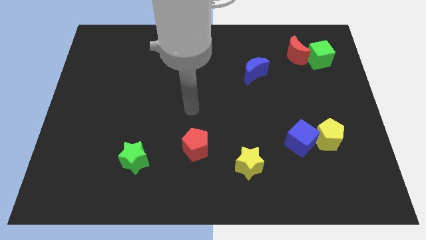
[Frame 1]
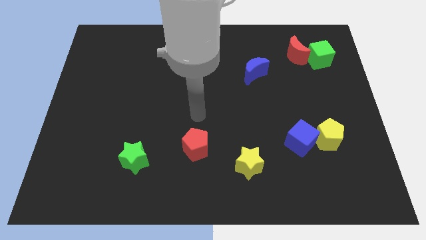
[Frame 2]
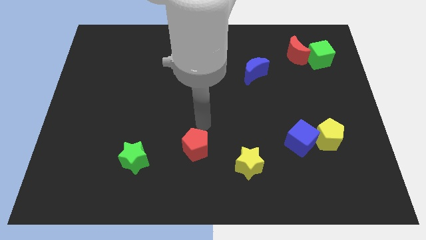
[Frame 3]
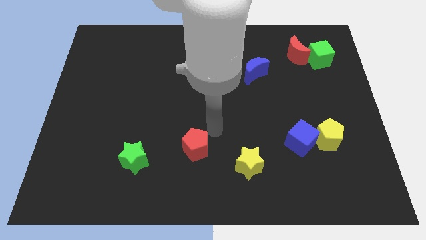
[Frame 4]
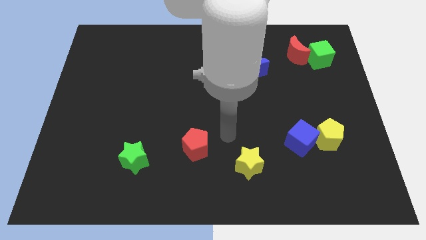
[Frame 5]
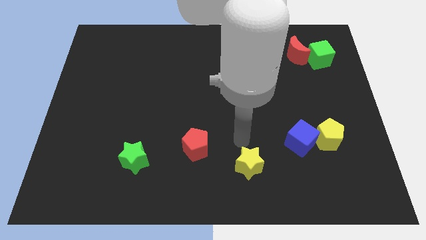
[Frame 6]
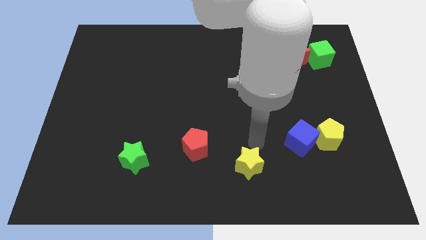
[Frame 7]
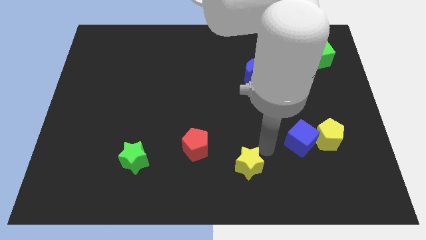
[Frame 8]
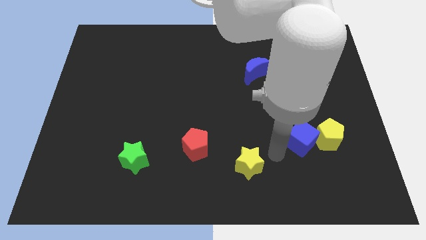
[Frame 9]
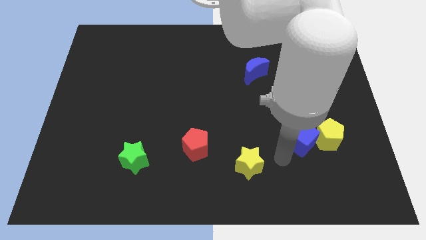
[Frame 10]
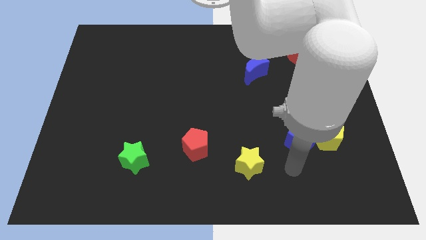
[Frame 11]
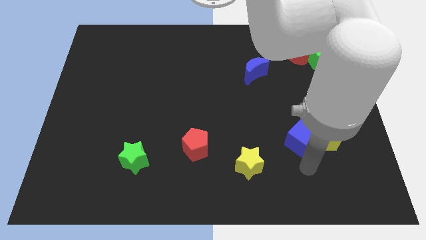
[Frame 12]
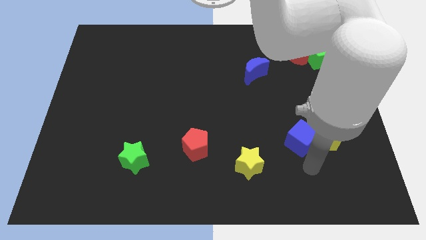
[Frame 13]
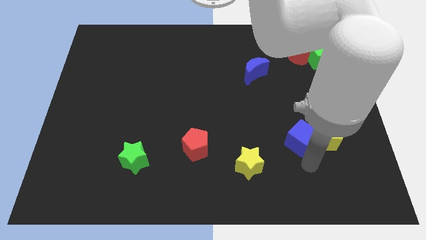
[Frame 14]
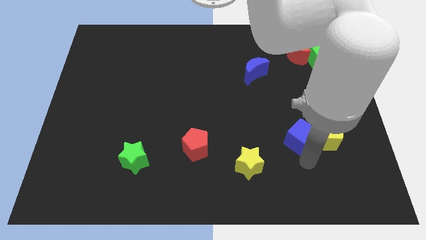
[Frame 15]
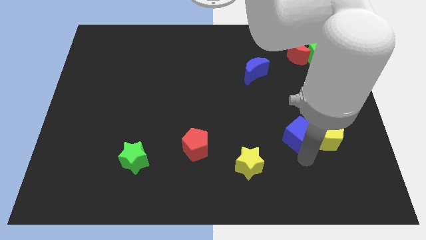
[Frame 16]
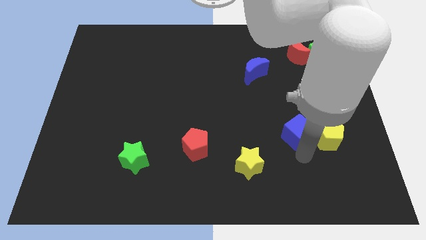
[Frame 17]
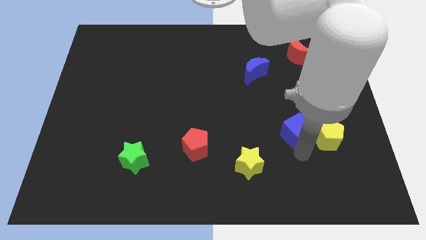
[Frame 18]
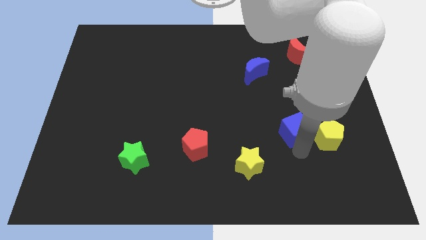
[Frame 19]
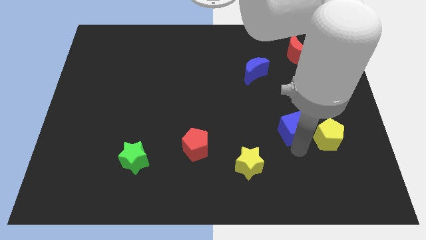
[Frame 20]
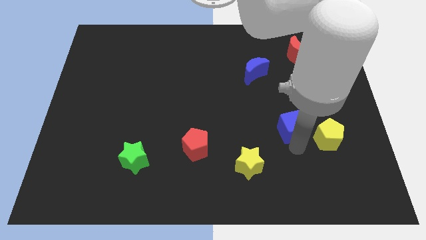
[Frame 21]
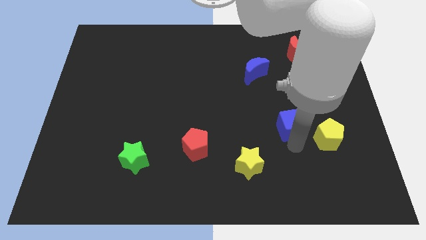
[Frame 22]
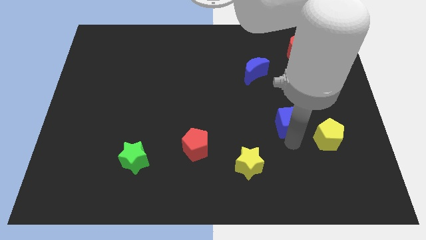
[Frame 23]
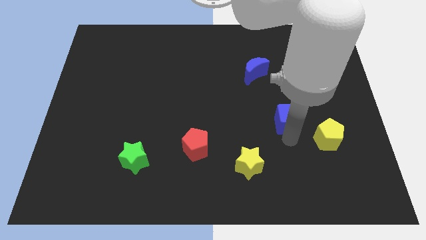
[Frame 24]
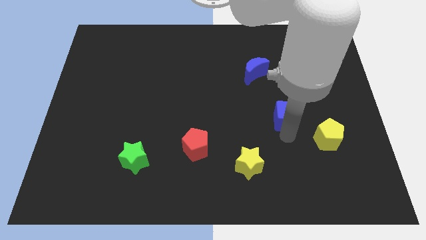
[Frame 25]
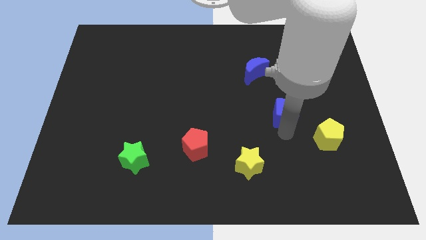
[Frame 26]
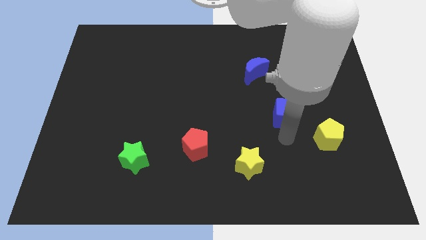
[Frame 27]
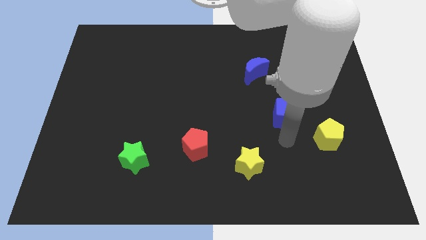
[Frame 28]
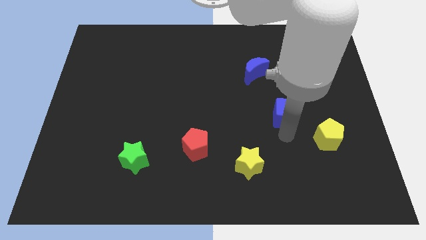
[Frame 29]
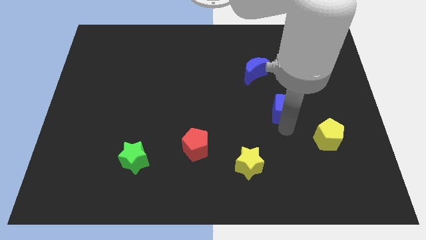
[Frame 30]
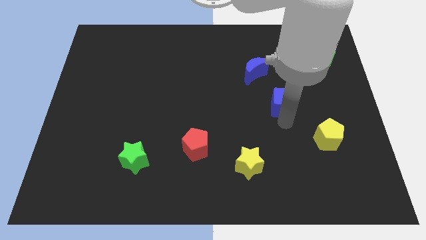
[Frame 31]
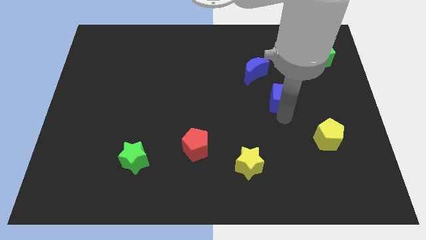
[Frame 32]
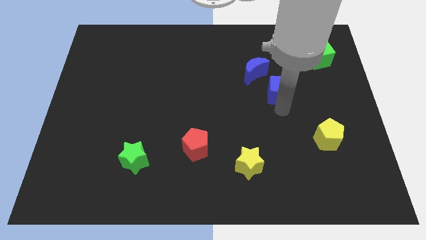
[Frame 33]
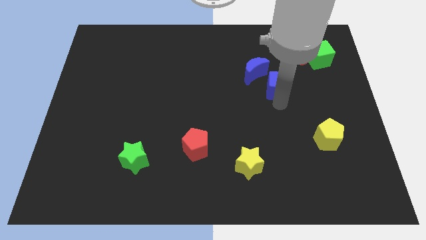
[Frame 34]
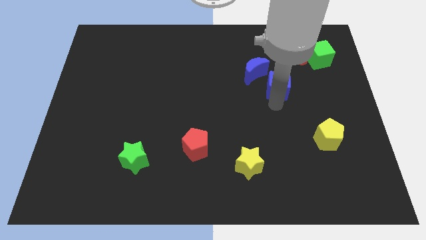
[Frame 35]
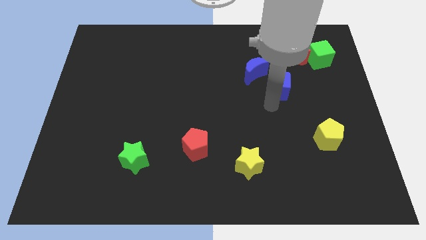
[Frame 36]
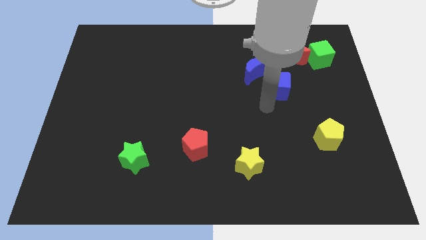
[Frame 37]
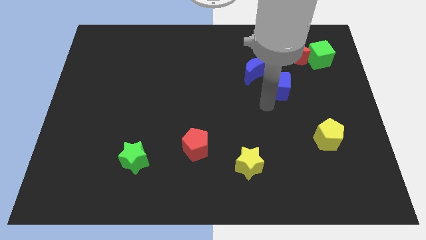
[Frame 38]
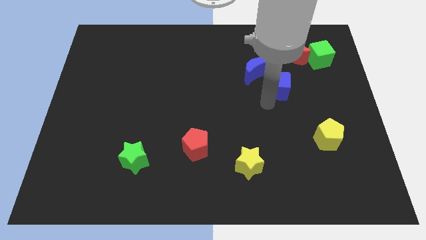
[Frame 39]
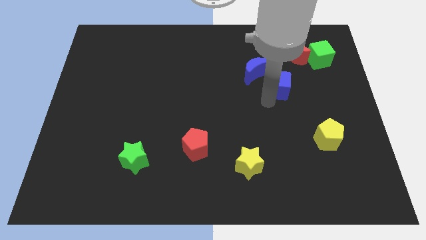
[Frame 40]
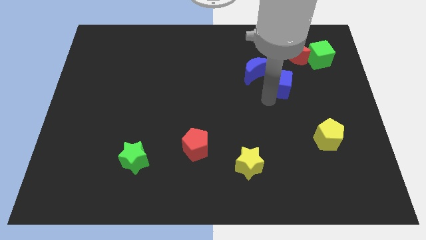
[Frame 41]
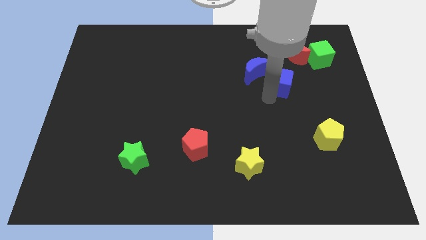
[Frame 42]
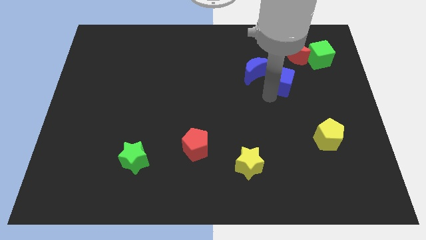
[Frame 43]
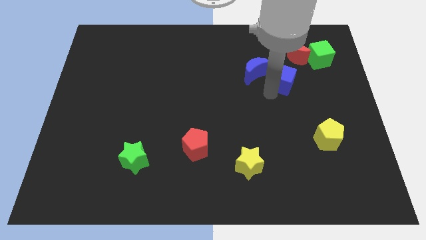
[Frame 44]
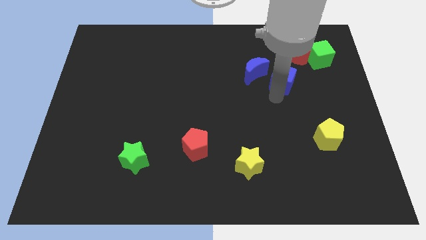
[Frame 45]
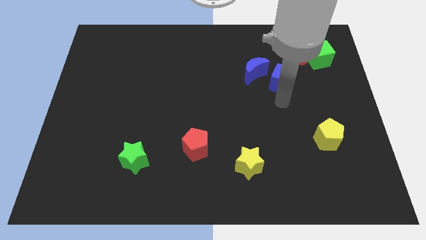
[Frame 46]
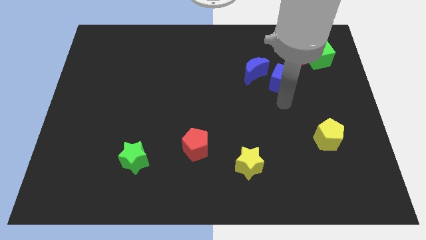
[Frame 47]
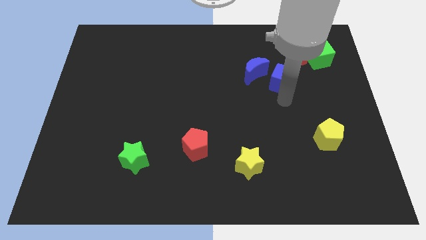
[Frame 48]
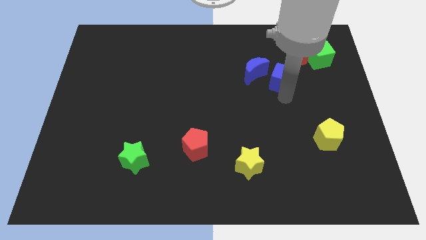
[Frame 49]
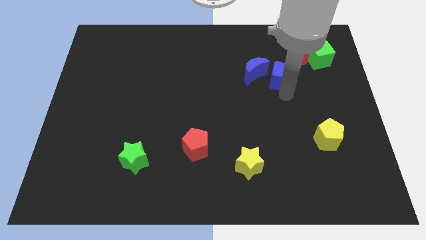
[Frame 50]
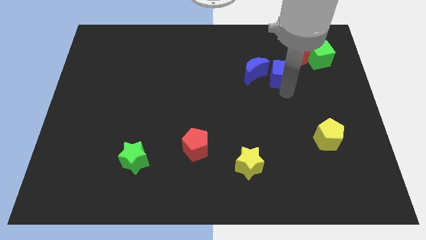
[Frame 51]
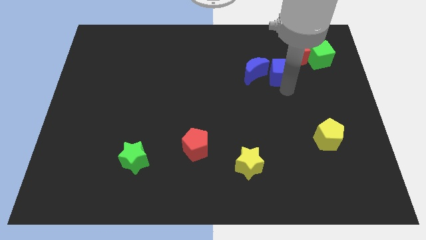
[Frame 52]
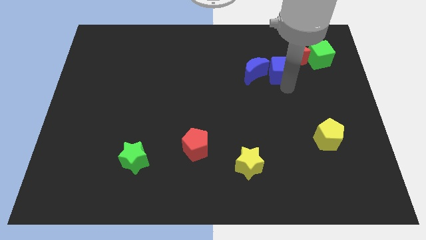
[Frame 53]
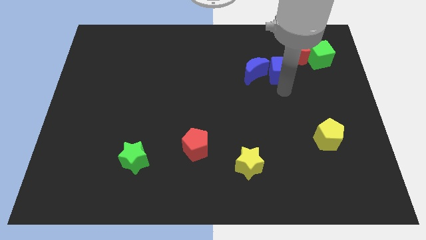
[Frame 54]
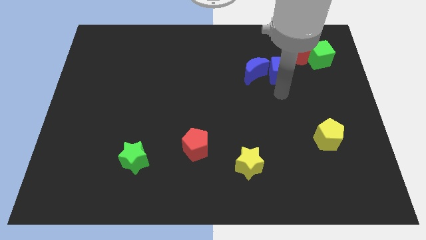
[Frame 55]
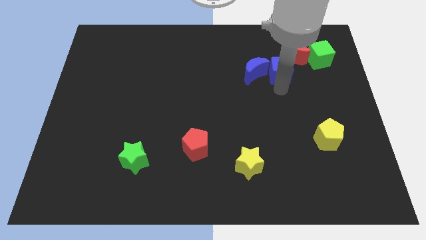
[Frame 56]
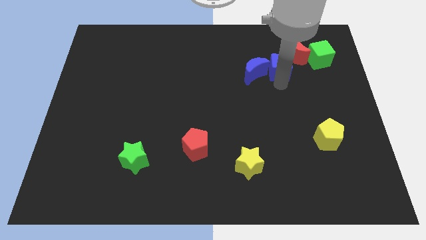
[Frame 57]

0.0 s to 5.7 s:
slide the blue cube to the left side of the green cube

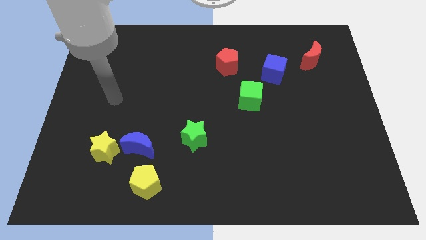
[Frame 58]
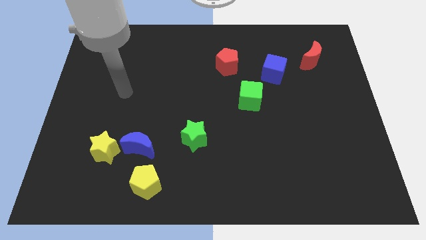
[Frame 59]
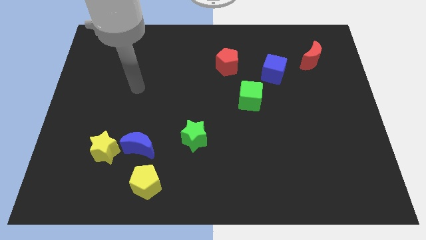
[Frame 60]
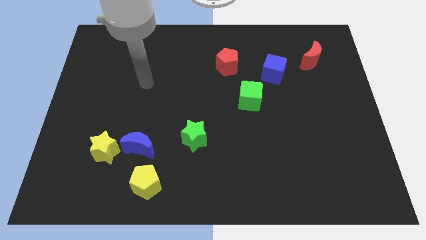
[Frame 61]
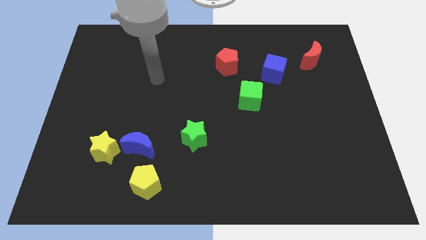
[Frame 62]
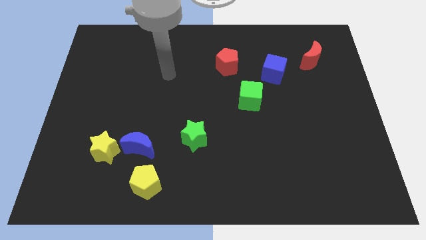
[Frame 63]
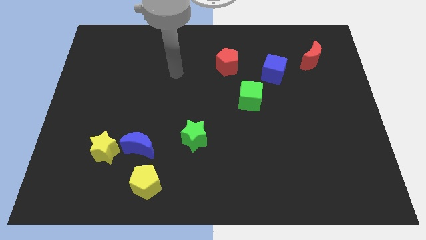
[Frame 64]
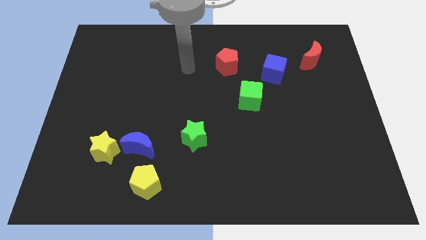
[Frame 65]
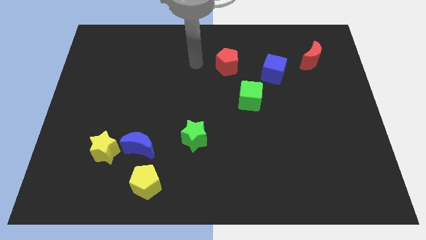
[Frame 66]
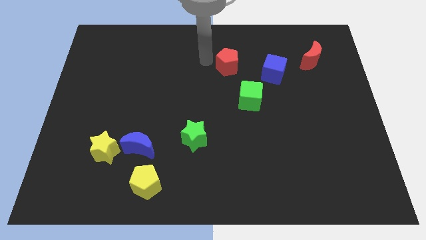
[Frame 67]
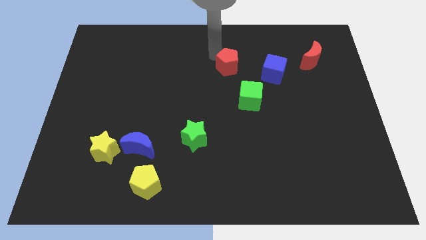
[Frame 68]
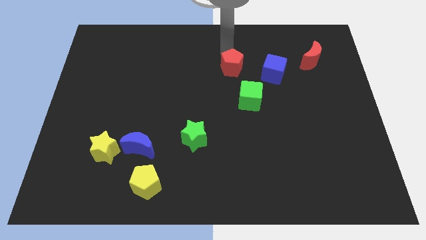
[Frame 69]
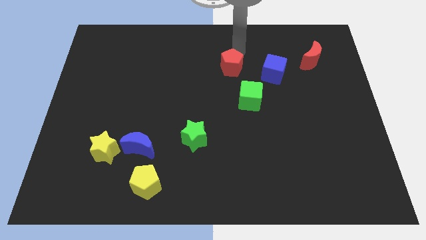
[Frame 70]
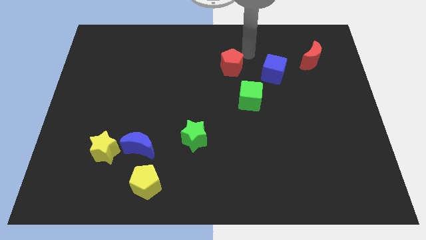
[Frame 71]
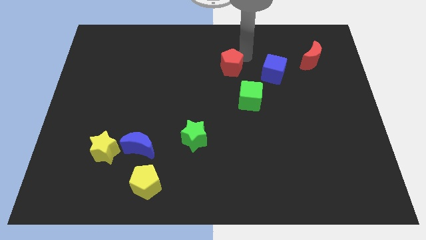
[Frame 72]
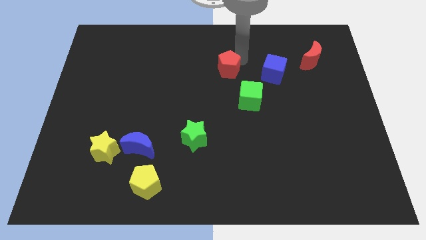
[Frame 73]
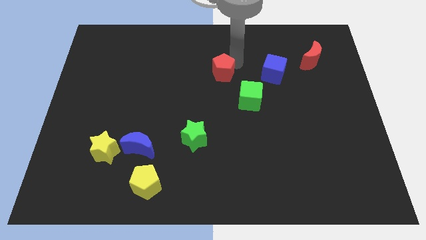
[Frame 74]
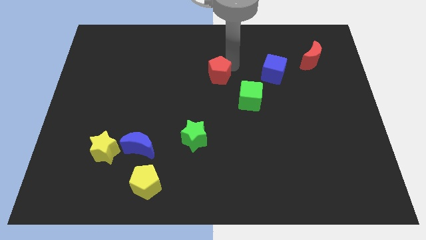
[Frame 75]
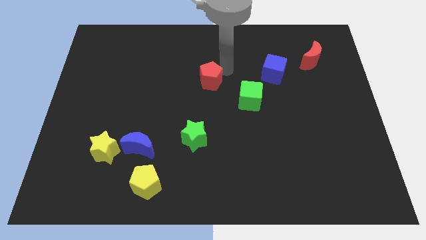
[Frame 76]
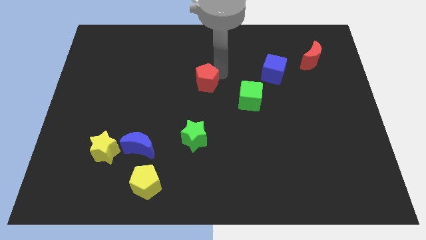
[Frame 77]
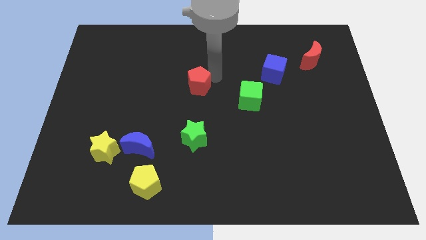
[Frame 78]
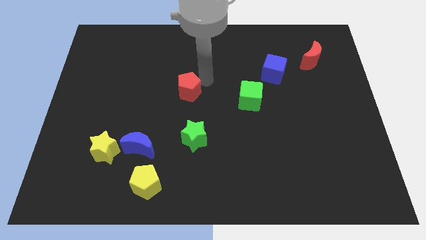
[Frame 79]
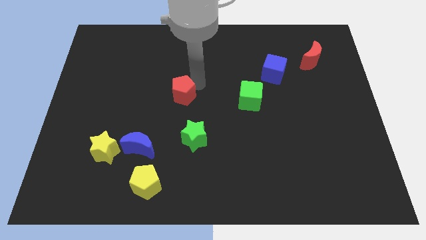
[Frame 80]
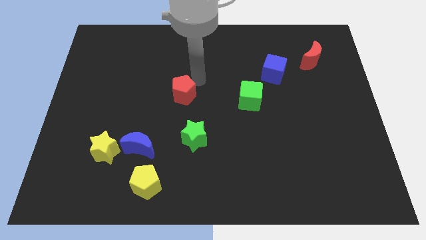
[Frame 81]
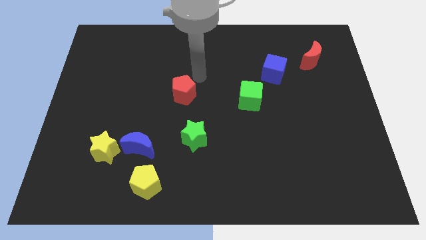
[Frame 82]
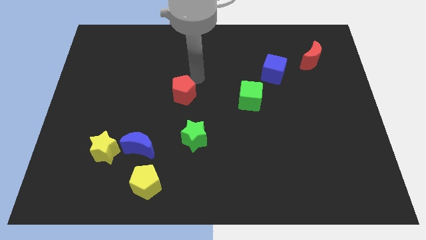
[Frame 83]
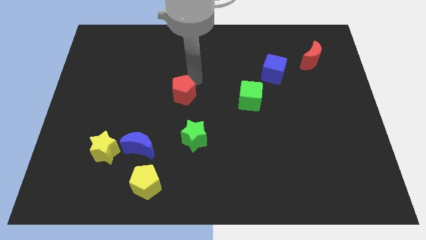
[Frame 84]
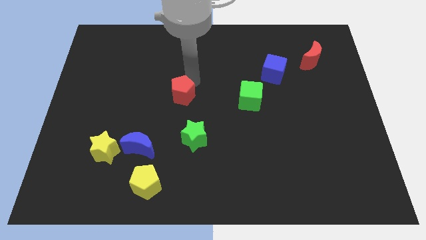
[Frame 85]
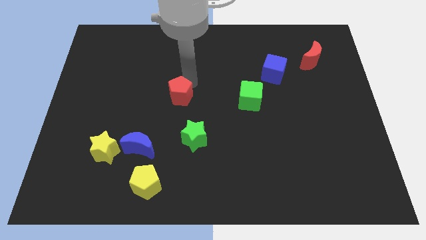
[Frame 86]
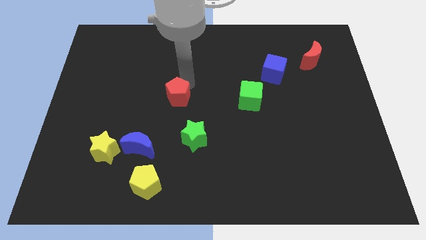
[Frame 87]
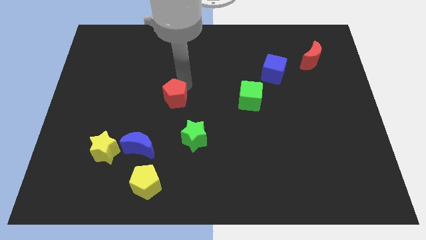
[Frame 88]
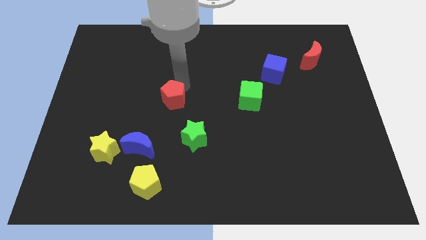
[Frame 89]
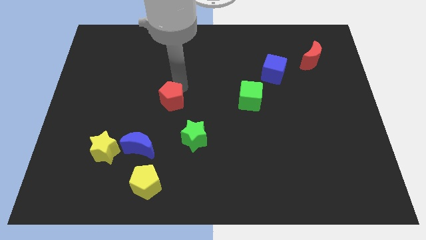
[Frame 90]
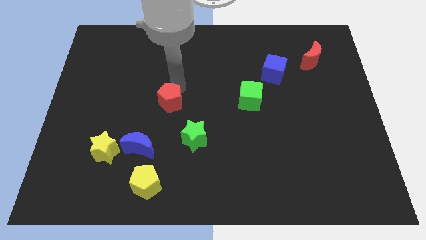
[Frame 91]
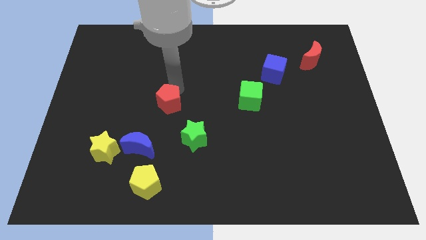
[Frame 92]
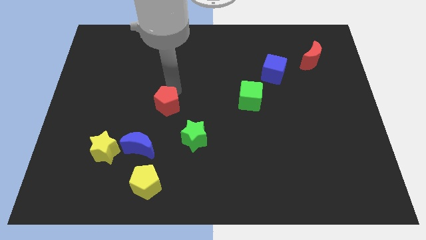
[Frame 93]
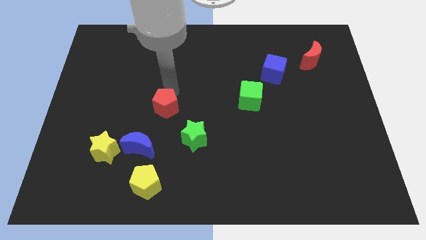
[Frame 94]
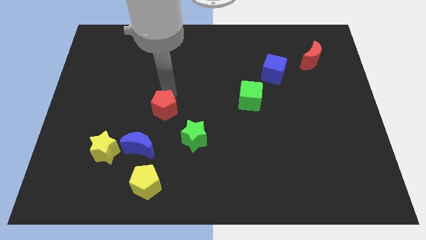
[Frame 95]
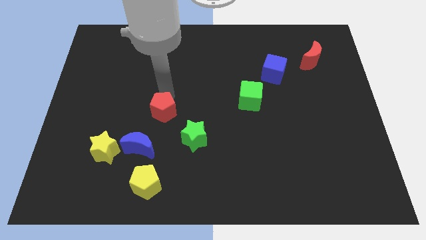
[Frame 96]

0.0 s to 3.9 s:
move the red pentagon to the top right side of the blue moon
